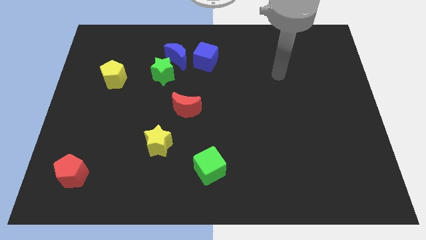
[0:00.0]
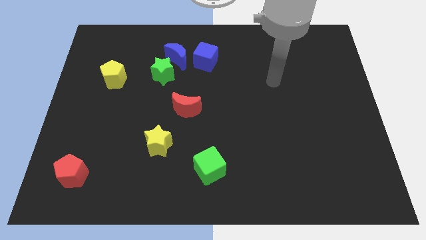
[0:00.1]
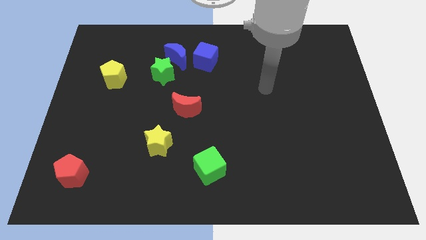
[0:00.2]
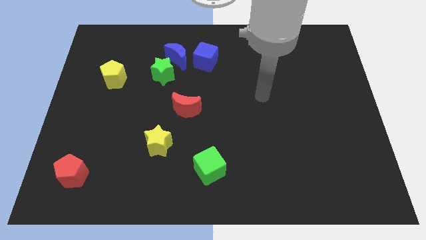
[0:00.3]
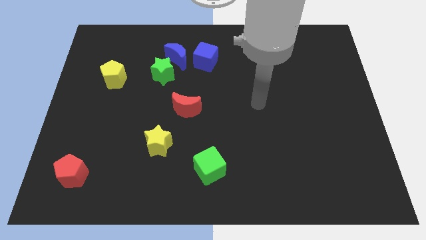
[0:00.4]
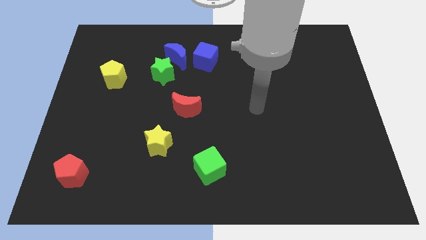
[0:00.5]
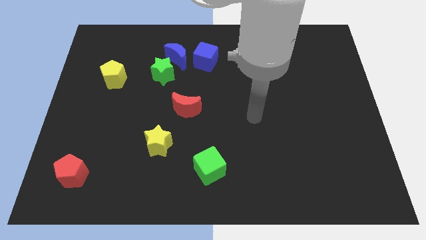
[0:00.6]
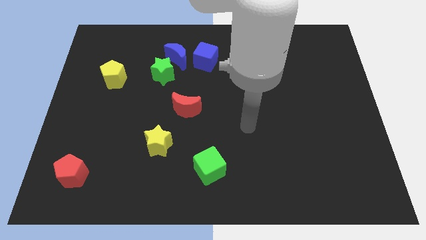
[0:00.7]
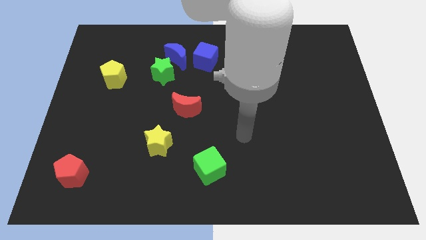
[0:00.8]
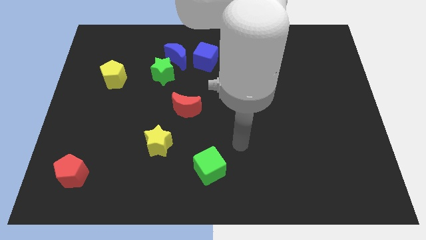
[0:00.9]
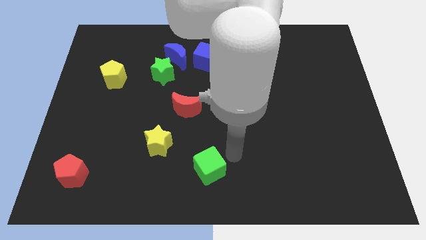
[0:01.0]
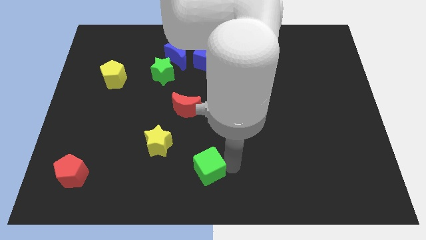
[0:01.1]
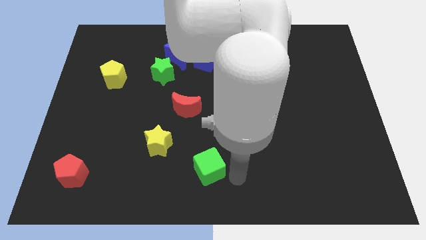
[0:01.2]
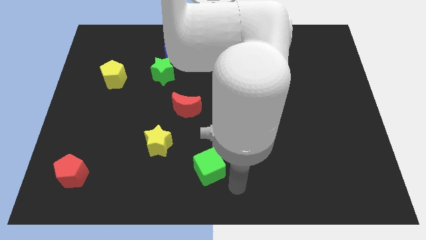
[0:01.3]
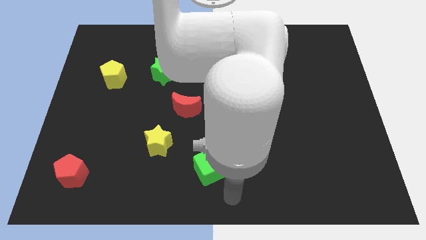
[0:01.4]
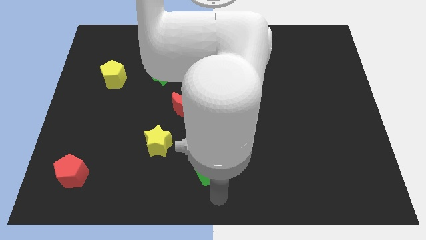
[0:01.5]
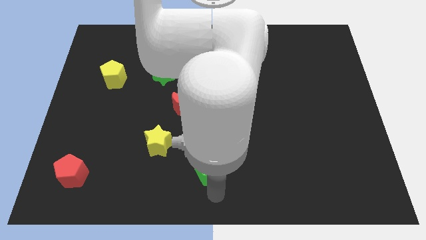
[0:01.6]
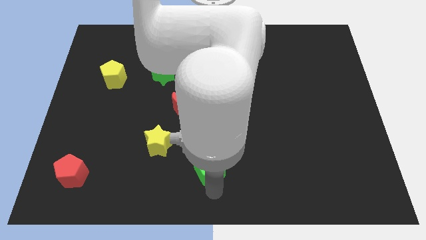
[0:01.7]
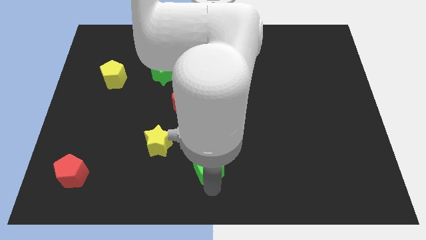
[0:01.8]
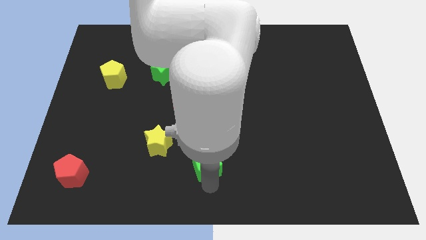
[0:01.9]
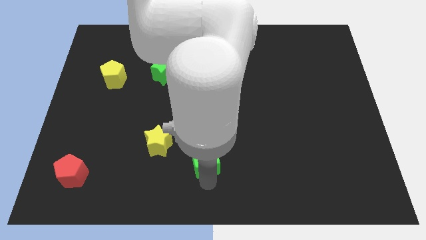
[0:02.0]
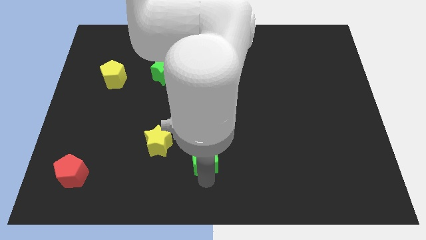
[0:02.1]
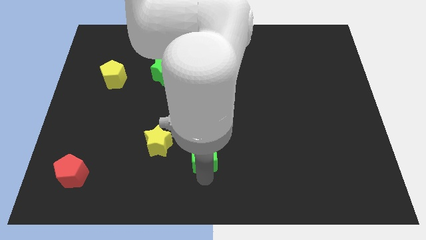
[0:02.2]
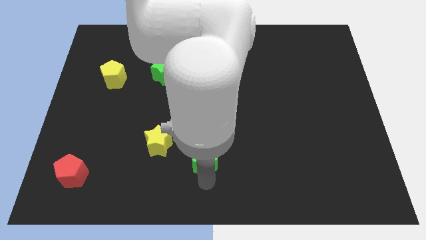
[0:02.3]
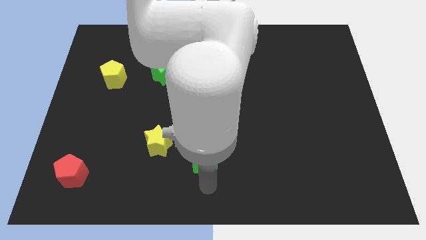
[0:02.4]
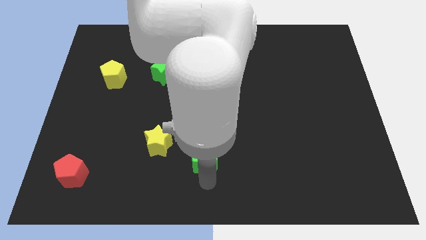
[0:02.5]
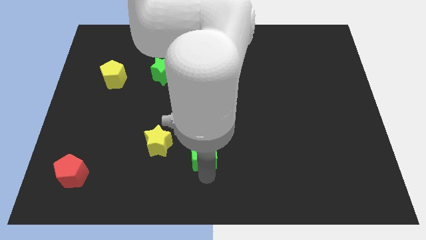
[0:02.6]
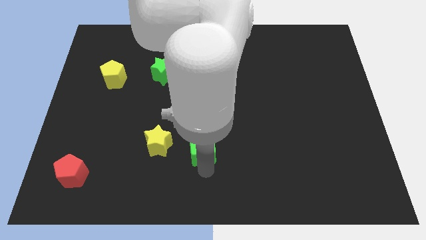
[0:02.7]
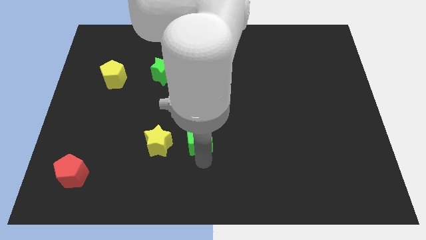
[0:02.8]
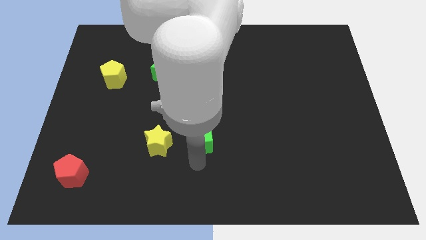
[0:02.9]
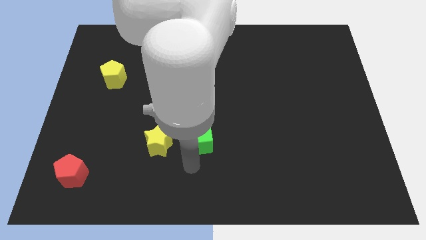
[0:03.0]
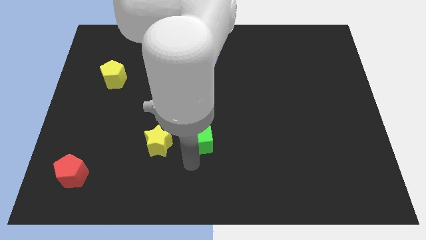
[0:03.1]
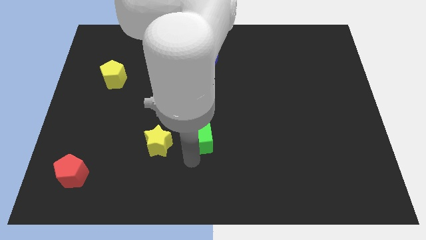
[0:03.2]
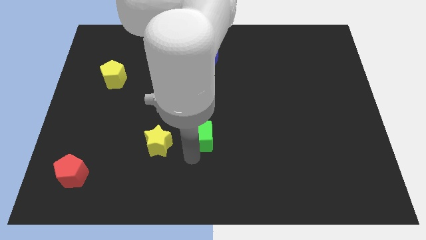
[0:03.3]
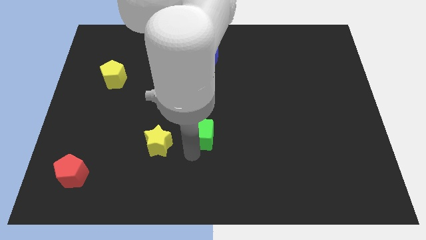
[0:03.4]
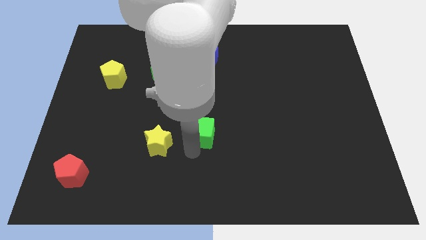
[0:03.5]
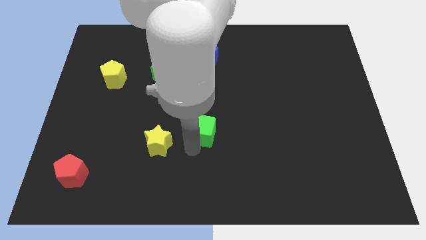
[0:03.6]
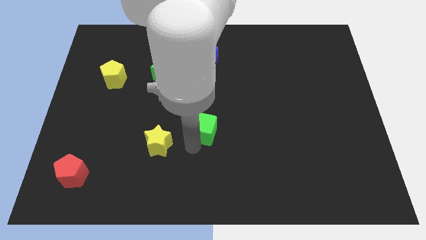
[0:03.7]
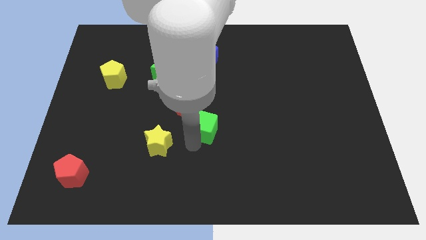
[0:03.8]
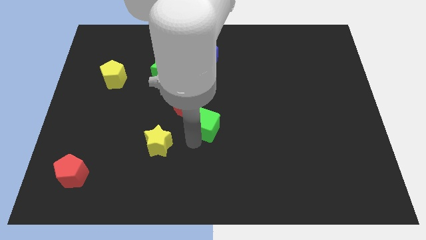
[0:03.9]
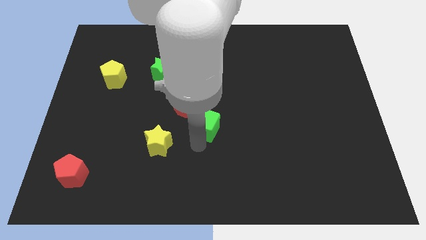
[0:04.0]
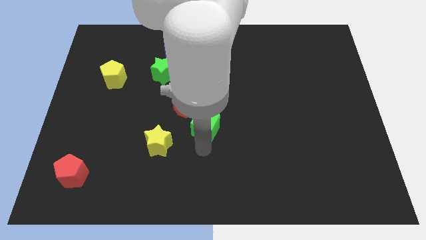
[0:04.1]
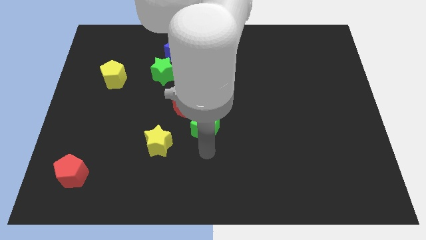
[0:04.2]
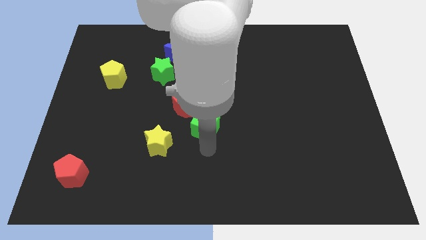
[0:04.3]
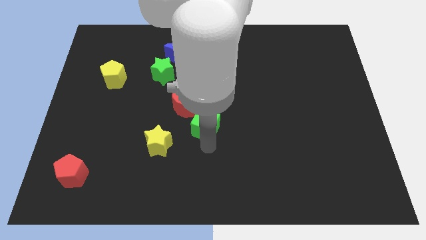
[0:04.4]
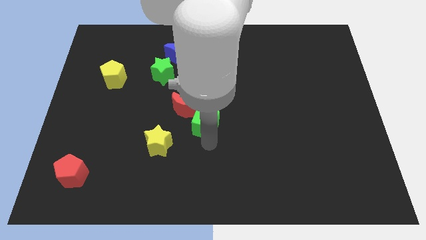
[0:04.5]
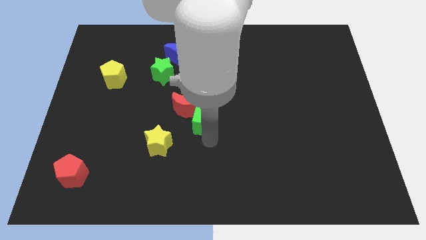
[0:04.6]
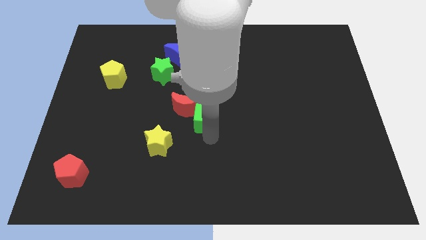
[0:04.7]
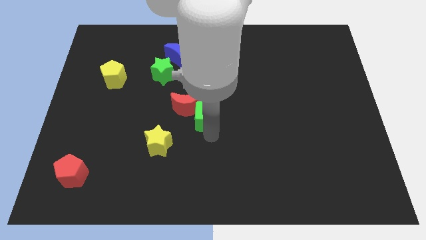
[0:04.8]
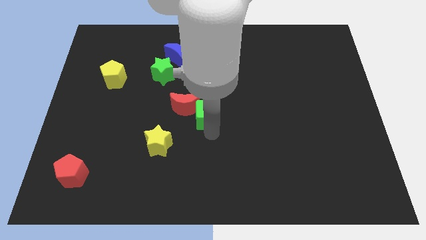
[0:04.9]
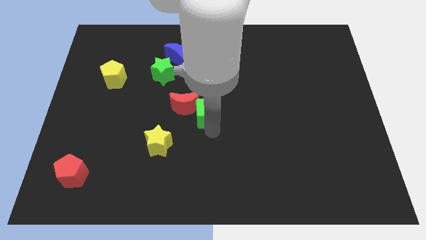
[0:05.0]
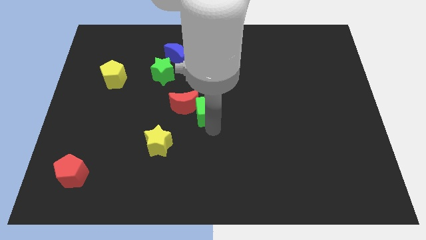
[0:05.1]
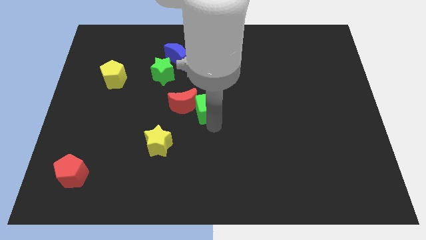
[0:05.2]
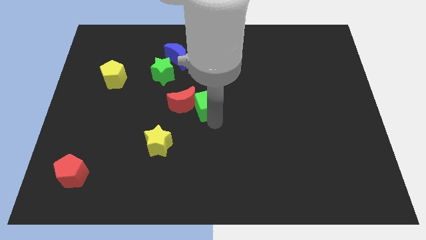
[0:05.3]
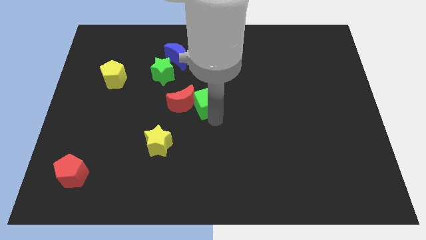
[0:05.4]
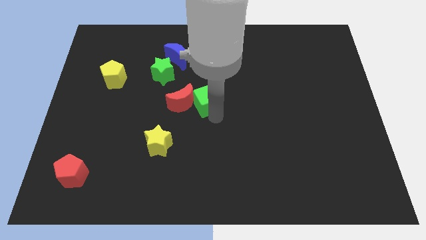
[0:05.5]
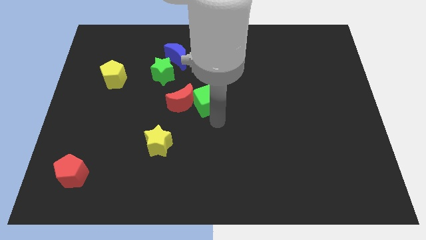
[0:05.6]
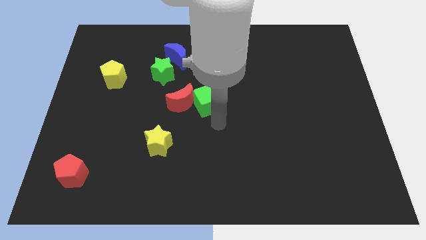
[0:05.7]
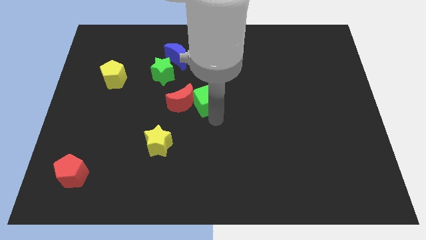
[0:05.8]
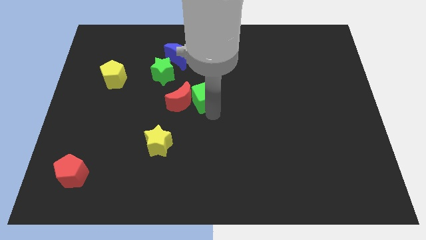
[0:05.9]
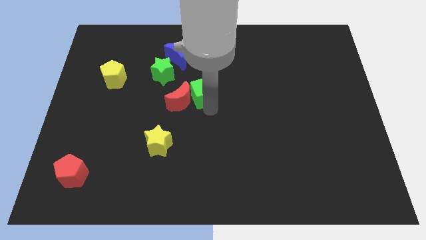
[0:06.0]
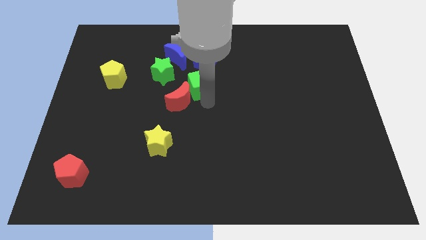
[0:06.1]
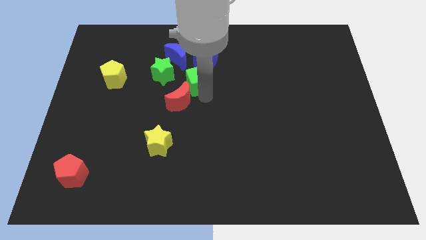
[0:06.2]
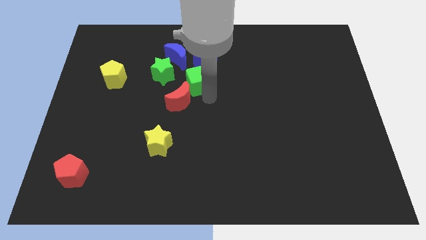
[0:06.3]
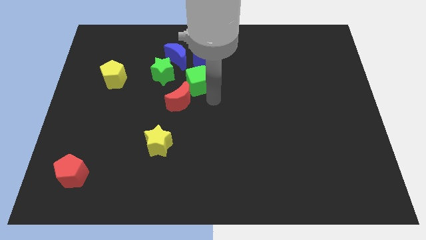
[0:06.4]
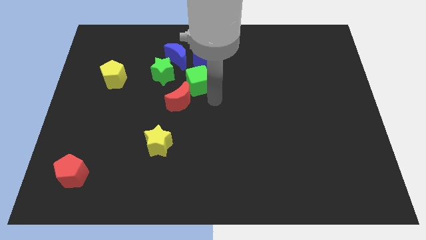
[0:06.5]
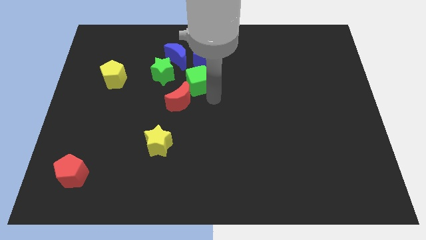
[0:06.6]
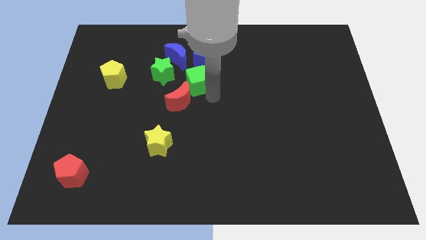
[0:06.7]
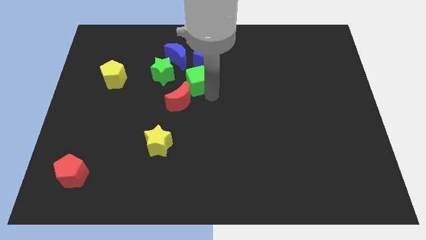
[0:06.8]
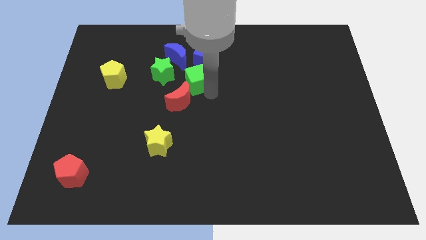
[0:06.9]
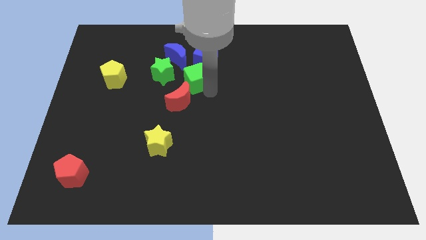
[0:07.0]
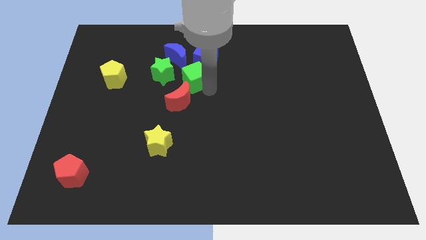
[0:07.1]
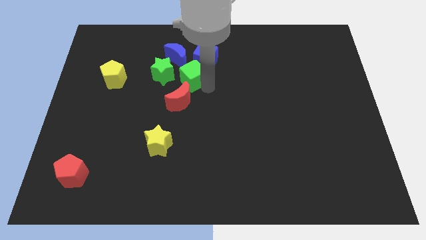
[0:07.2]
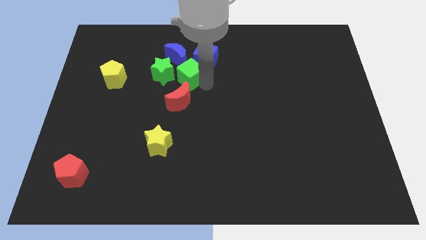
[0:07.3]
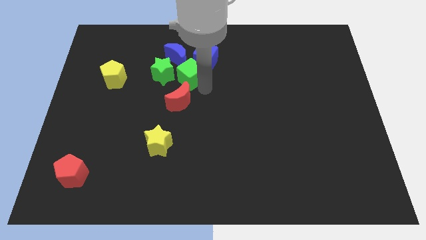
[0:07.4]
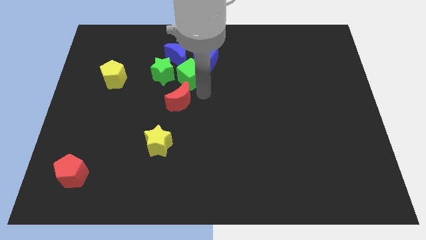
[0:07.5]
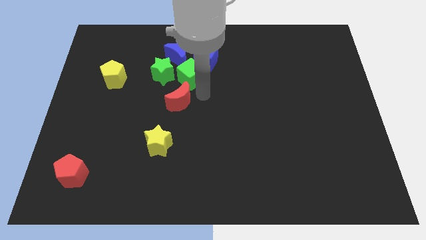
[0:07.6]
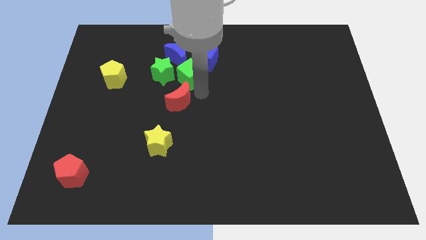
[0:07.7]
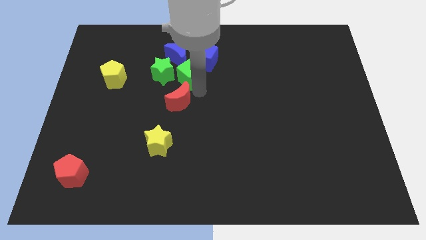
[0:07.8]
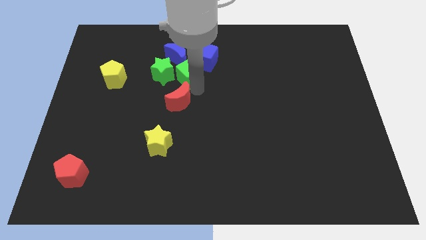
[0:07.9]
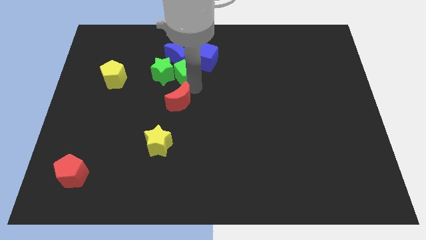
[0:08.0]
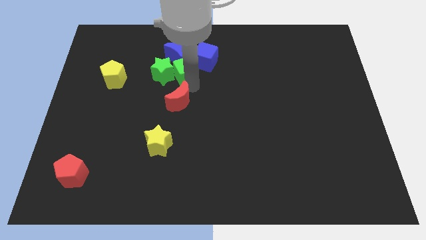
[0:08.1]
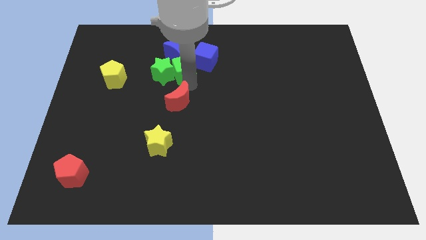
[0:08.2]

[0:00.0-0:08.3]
put the green cube next to the blue moon
